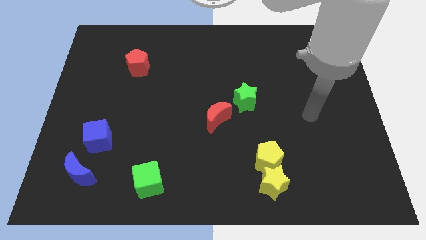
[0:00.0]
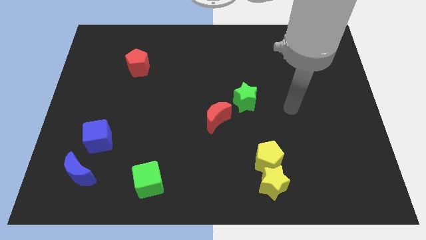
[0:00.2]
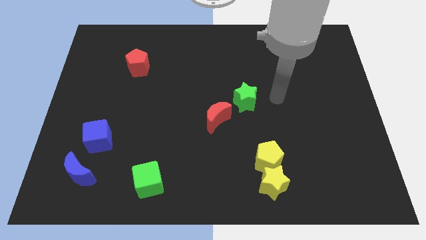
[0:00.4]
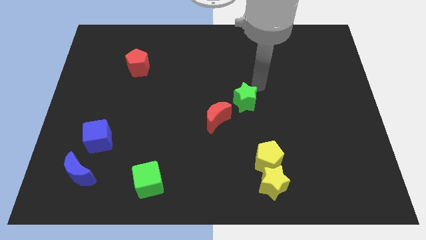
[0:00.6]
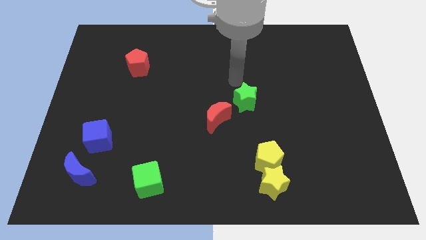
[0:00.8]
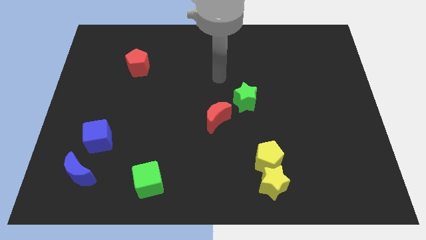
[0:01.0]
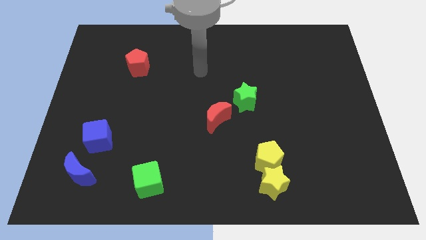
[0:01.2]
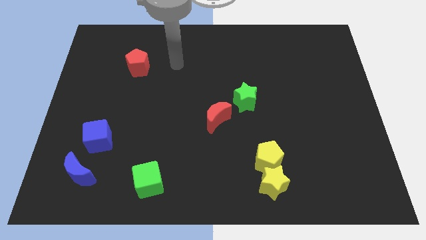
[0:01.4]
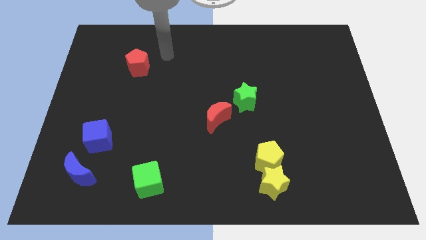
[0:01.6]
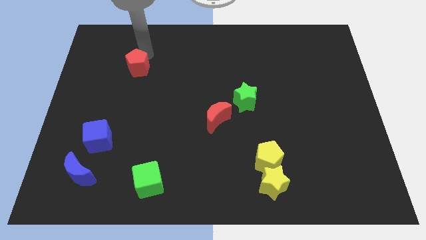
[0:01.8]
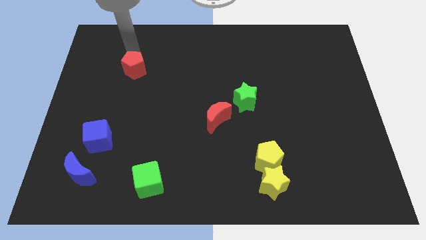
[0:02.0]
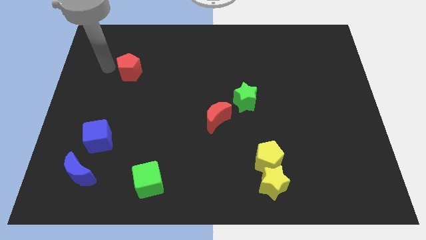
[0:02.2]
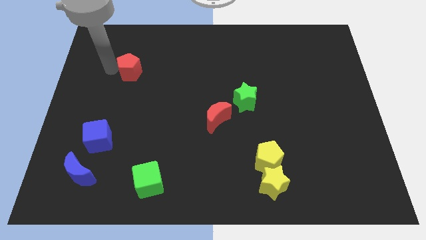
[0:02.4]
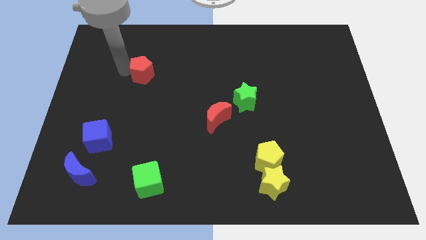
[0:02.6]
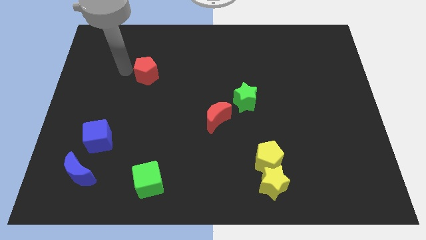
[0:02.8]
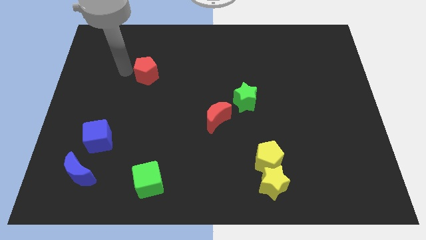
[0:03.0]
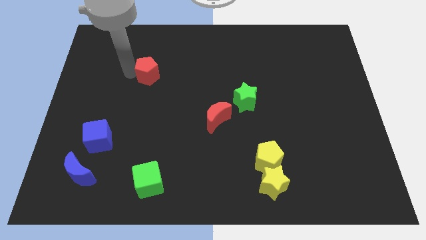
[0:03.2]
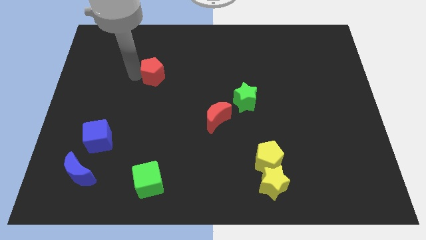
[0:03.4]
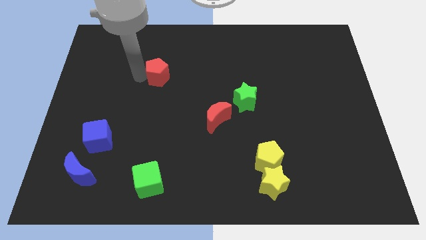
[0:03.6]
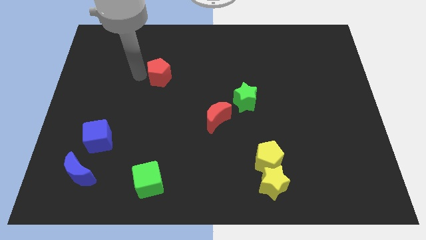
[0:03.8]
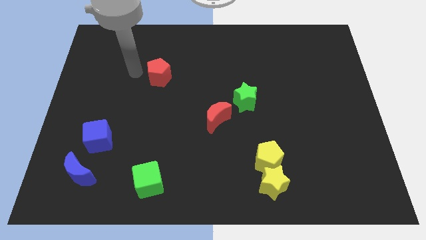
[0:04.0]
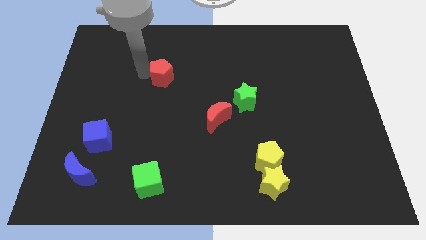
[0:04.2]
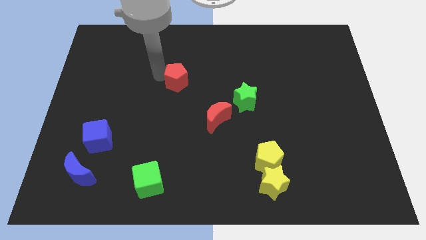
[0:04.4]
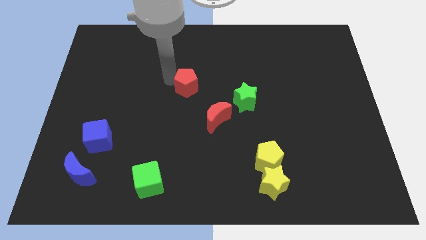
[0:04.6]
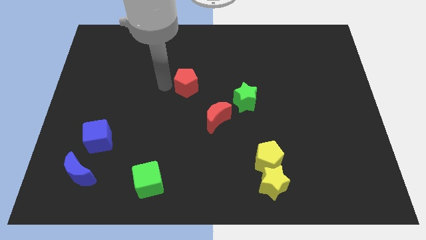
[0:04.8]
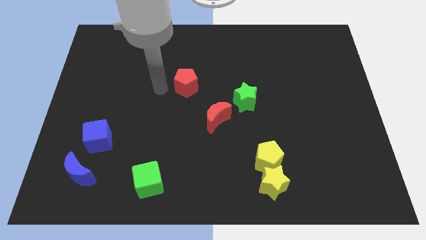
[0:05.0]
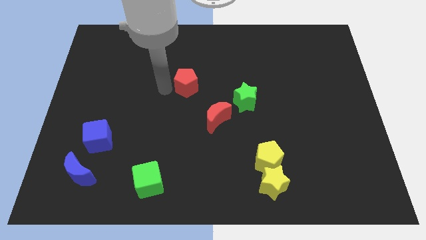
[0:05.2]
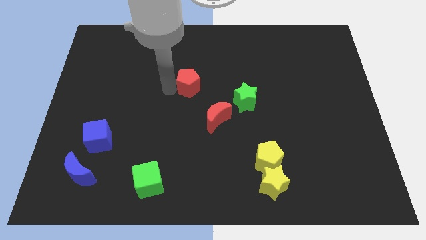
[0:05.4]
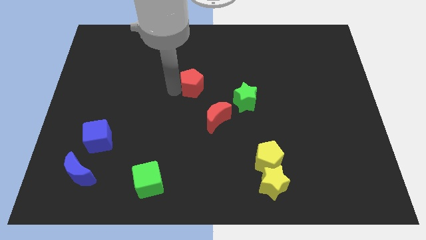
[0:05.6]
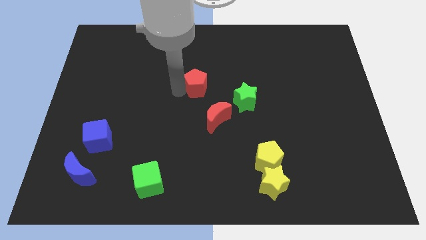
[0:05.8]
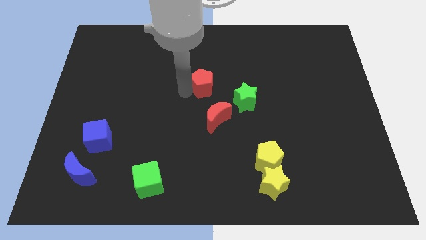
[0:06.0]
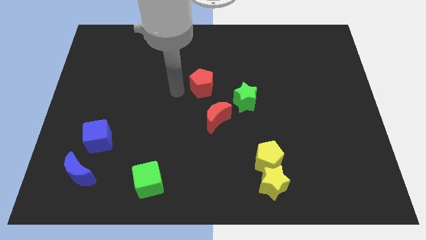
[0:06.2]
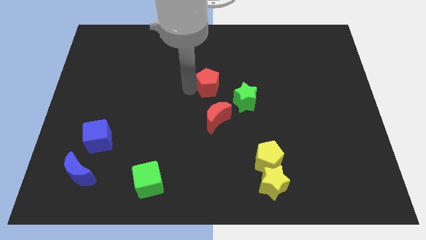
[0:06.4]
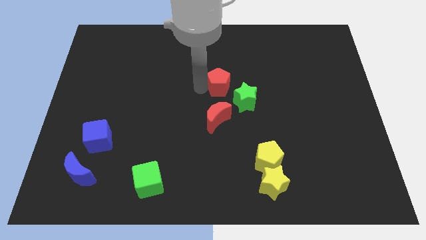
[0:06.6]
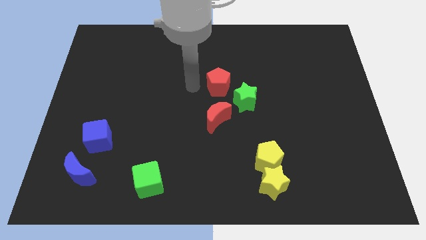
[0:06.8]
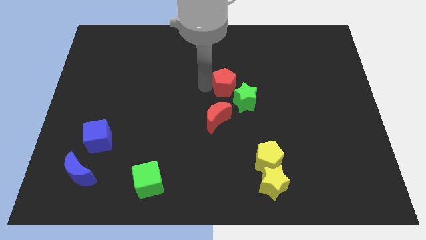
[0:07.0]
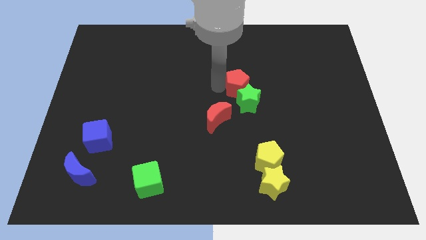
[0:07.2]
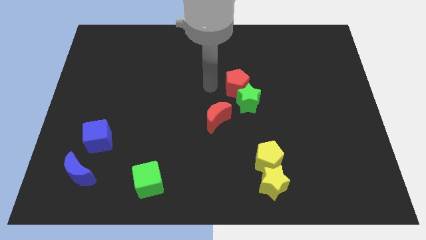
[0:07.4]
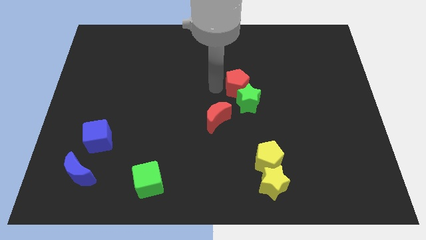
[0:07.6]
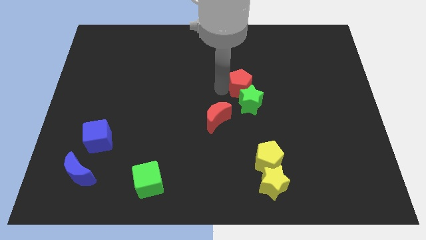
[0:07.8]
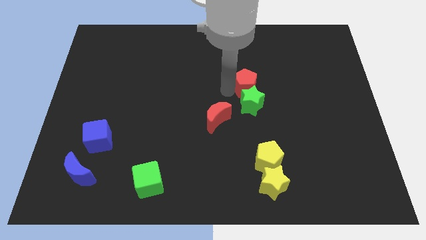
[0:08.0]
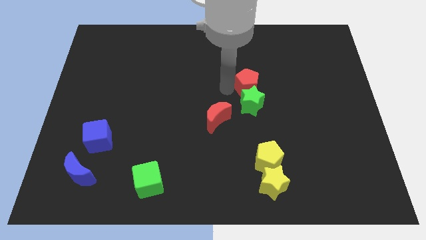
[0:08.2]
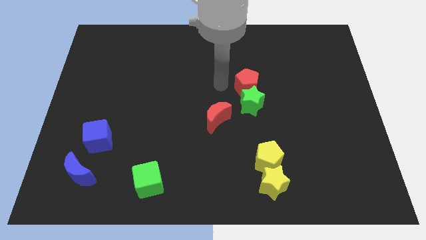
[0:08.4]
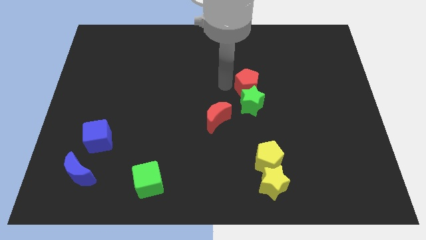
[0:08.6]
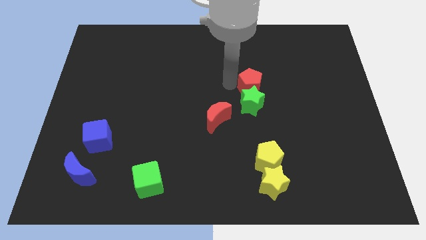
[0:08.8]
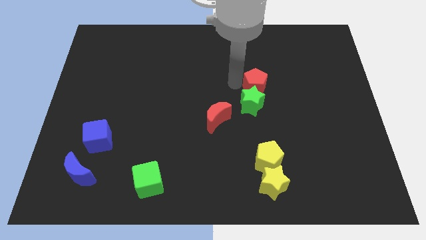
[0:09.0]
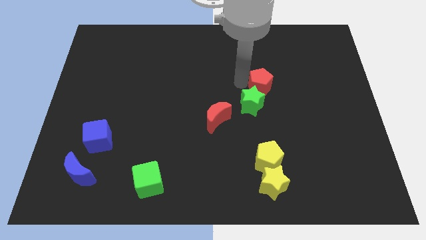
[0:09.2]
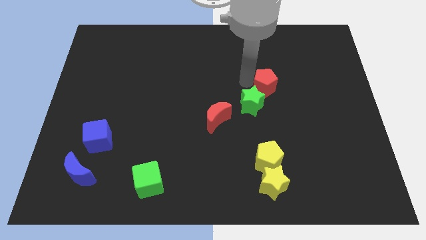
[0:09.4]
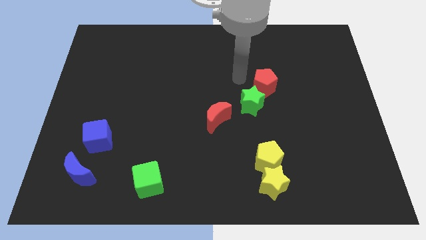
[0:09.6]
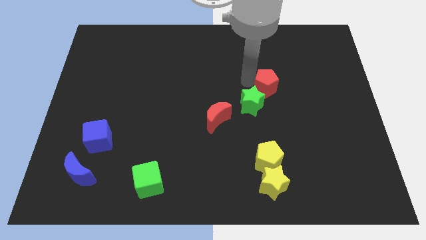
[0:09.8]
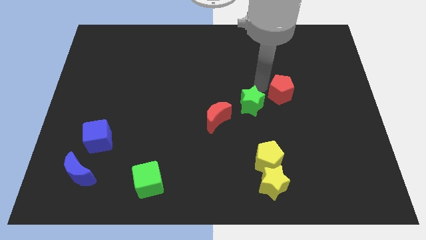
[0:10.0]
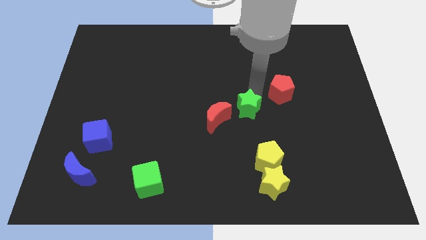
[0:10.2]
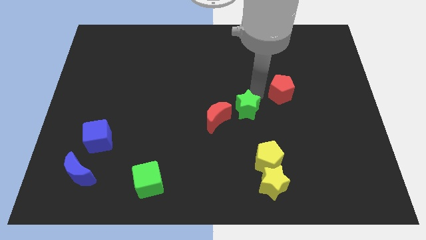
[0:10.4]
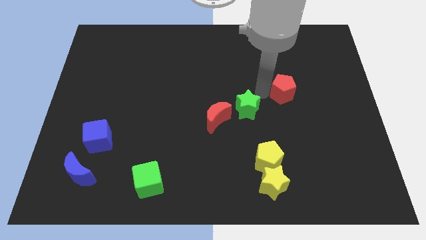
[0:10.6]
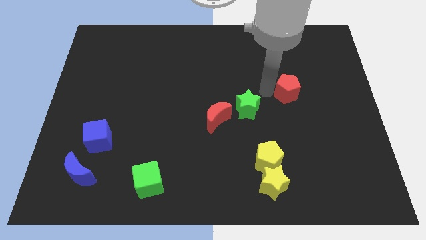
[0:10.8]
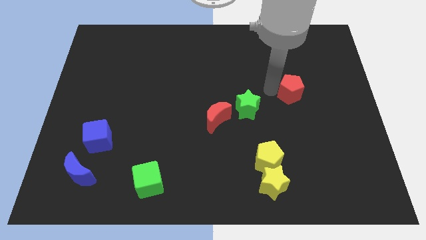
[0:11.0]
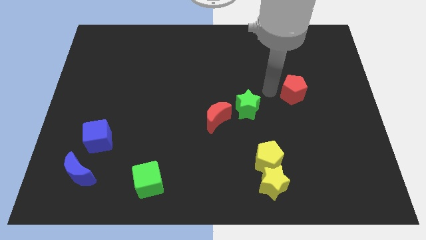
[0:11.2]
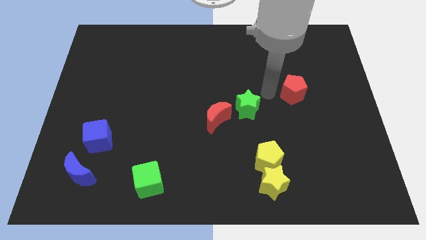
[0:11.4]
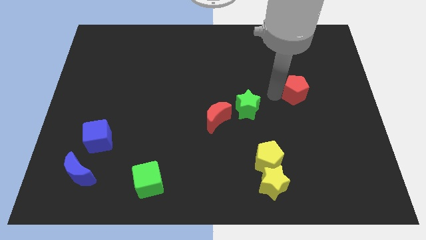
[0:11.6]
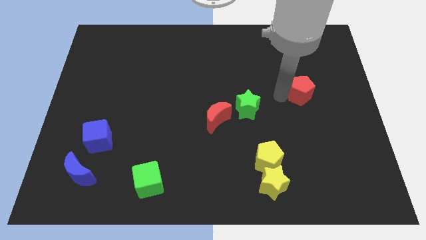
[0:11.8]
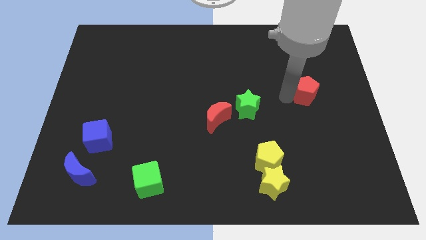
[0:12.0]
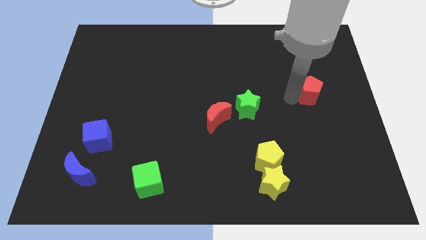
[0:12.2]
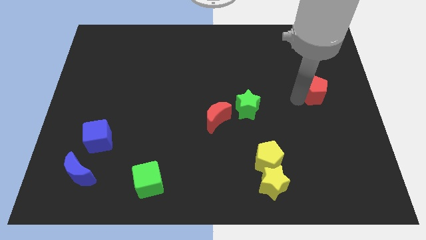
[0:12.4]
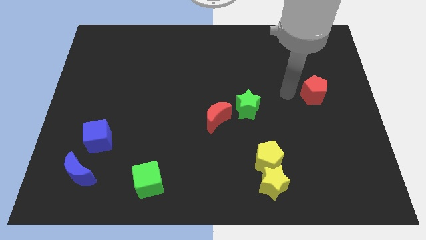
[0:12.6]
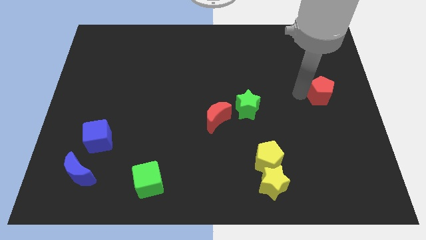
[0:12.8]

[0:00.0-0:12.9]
push the red pentagon to the center right
